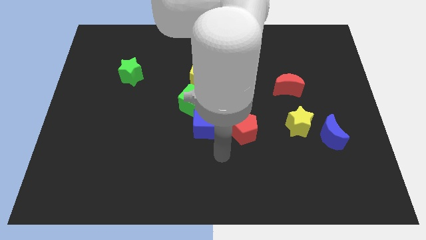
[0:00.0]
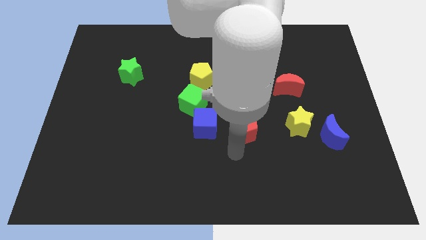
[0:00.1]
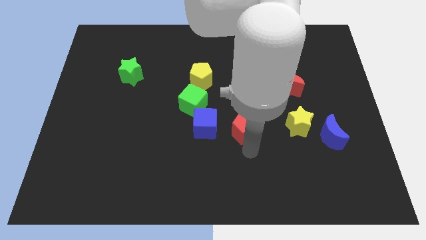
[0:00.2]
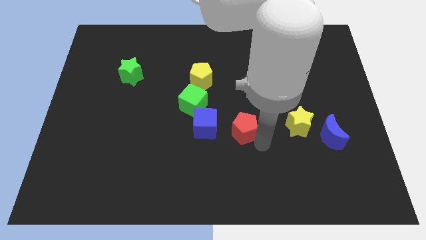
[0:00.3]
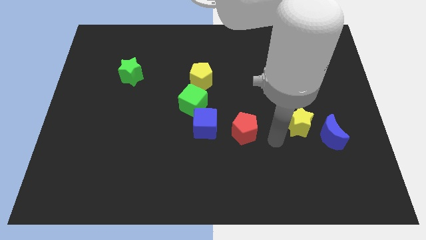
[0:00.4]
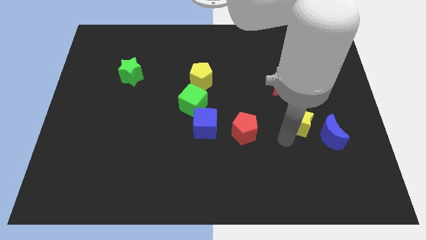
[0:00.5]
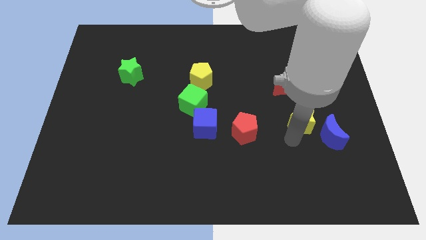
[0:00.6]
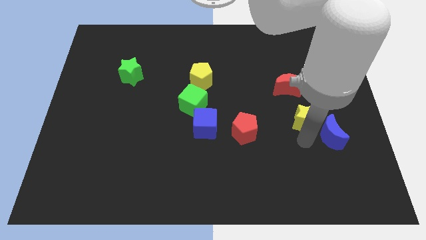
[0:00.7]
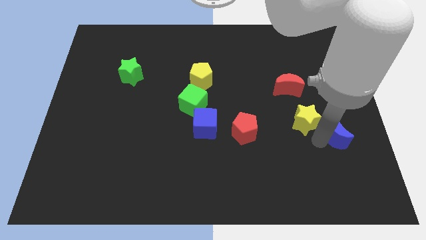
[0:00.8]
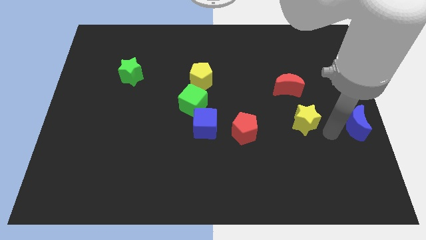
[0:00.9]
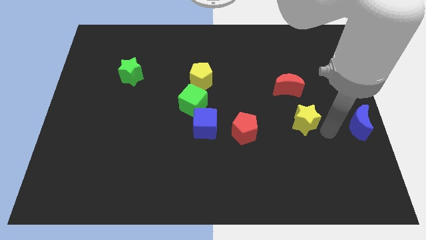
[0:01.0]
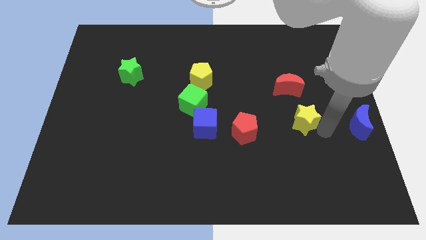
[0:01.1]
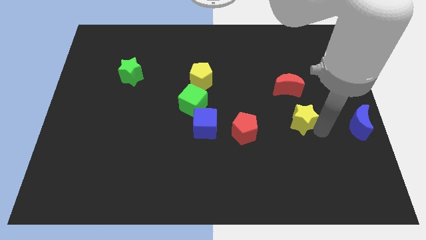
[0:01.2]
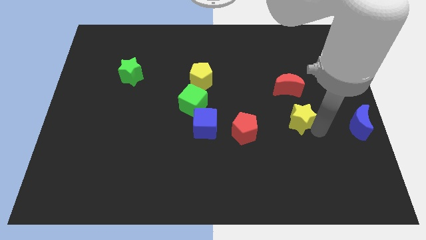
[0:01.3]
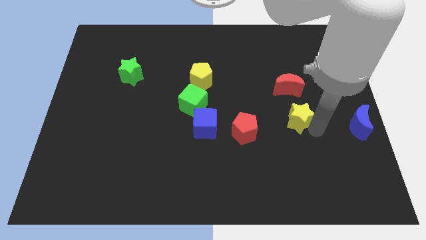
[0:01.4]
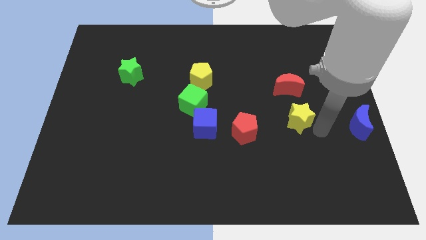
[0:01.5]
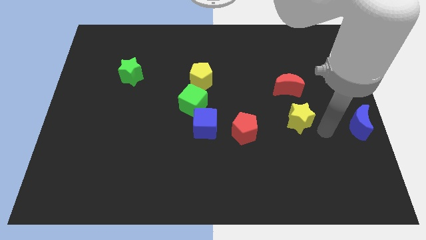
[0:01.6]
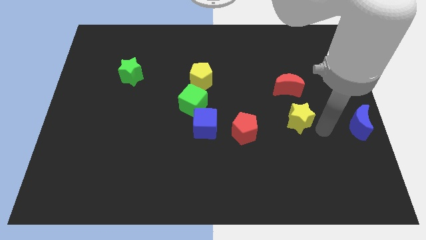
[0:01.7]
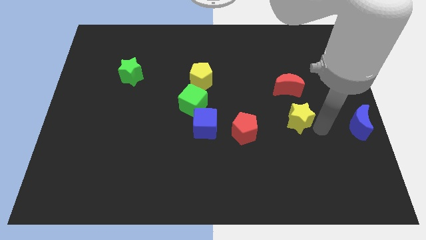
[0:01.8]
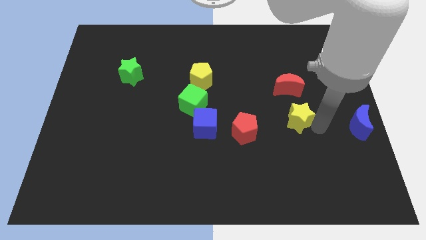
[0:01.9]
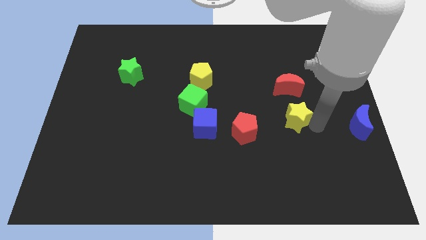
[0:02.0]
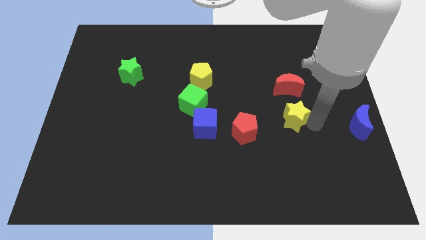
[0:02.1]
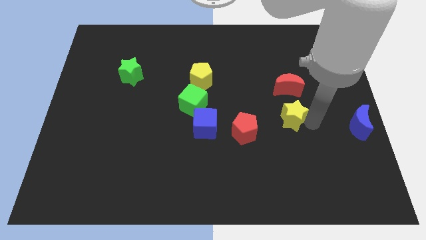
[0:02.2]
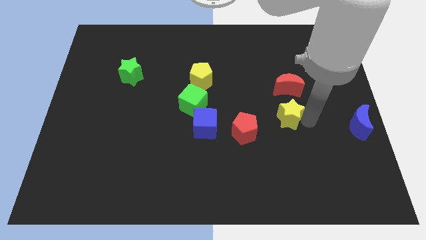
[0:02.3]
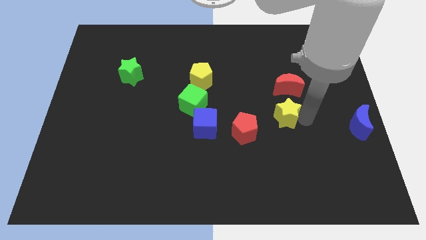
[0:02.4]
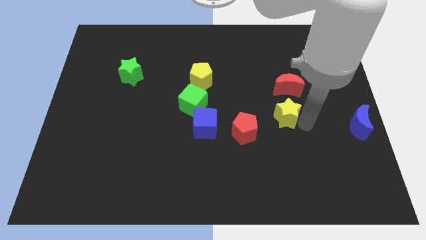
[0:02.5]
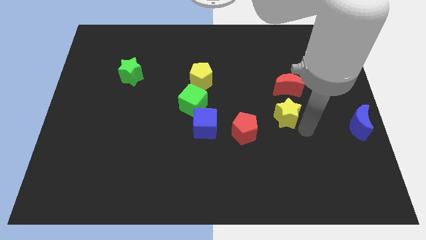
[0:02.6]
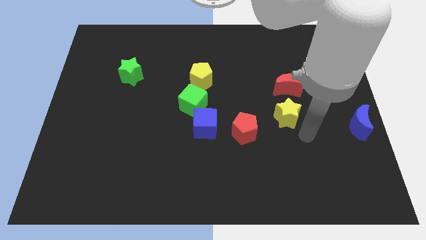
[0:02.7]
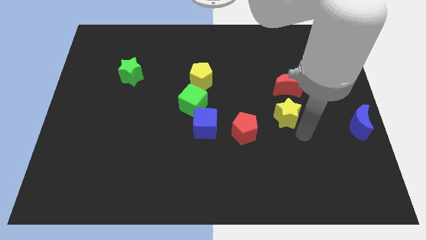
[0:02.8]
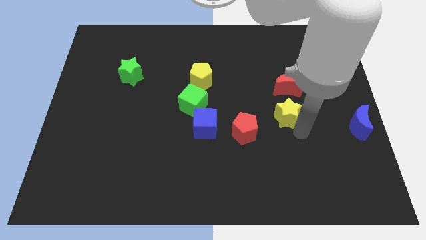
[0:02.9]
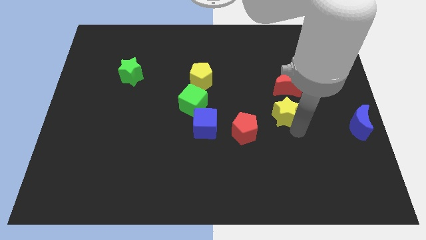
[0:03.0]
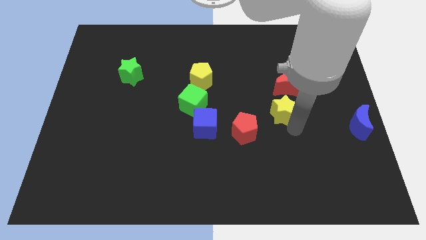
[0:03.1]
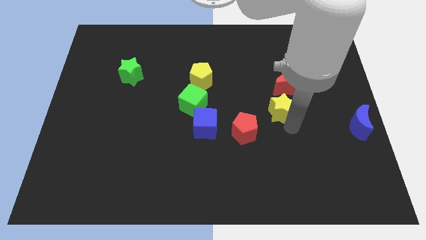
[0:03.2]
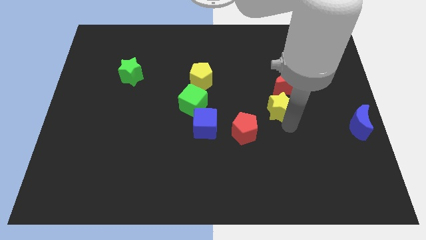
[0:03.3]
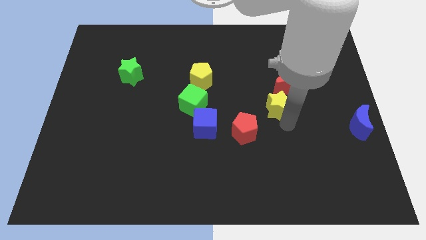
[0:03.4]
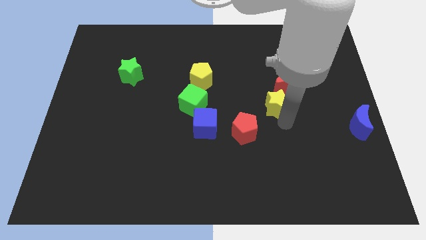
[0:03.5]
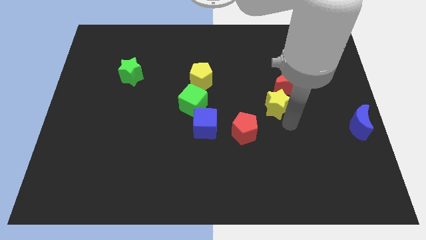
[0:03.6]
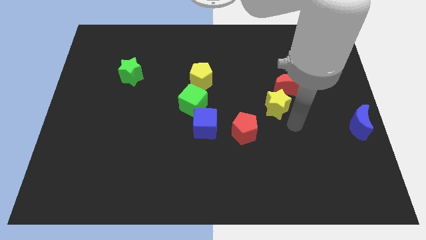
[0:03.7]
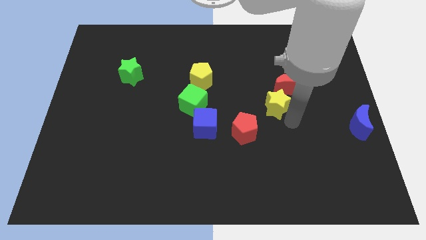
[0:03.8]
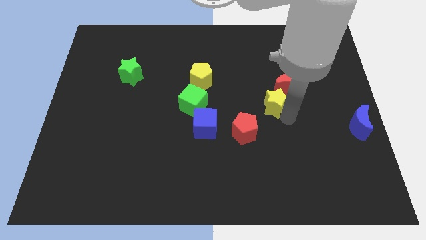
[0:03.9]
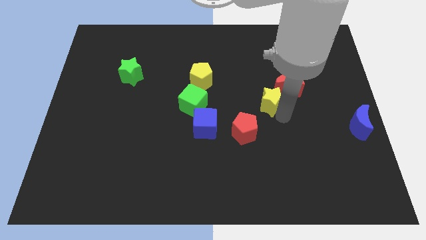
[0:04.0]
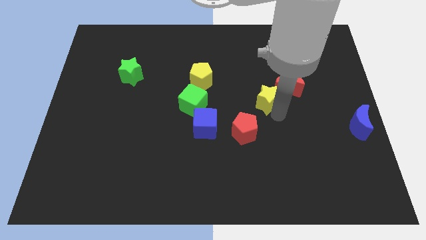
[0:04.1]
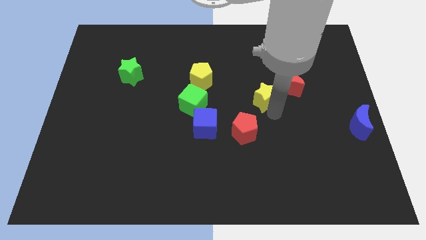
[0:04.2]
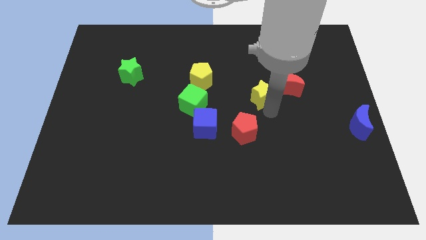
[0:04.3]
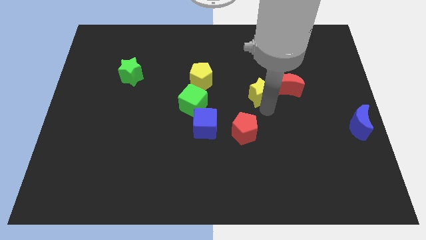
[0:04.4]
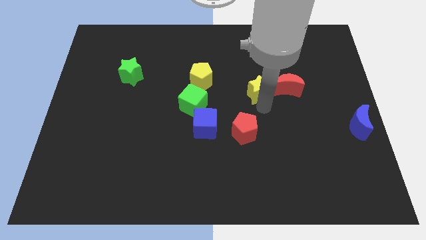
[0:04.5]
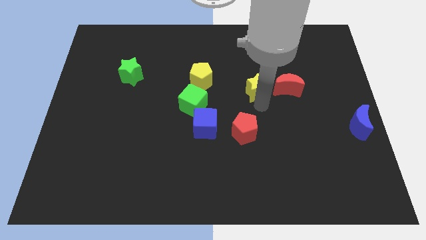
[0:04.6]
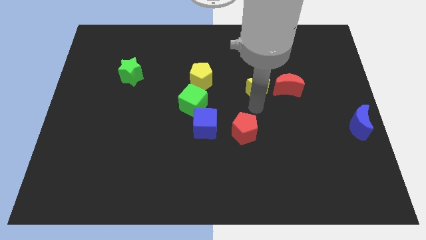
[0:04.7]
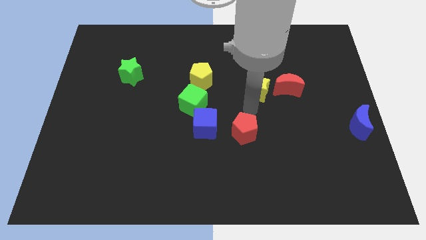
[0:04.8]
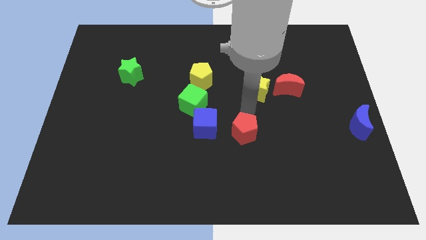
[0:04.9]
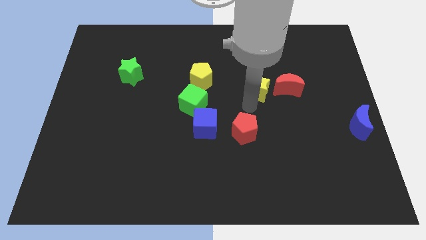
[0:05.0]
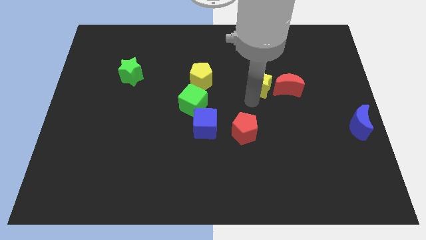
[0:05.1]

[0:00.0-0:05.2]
slide the yellow star diagonally up and to the left of the red moon

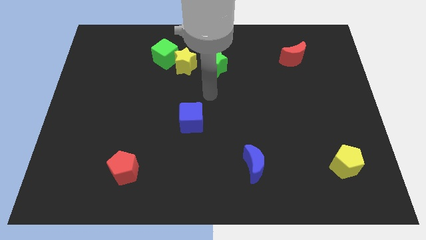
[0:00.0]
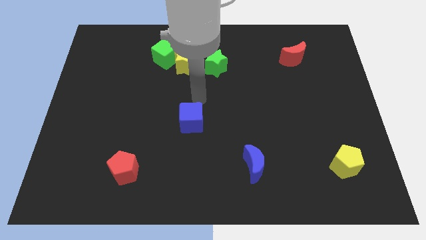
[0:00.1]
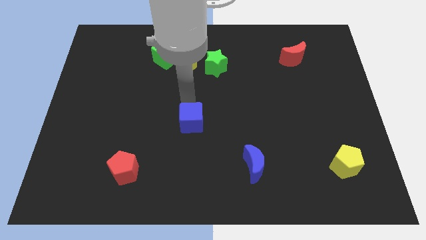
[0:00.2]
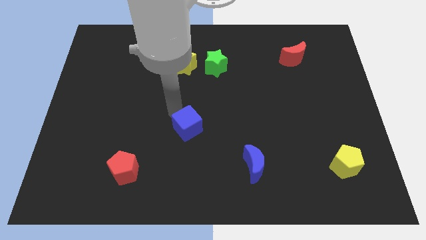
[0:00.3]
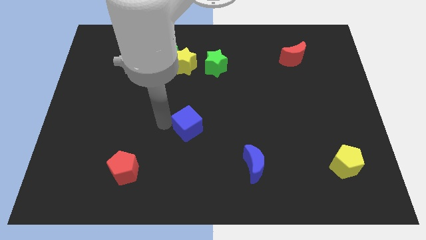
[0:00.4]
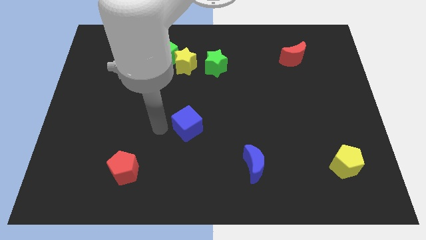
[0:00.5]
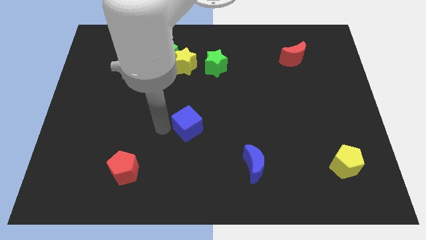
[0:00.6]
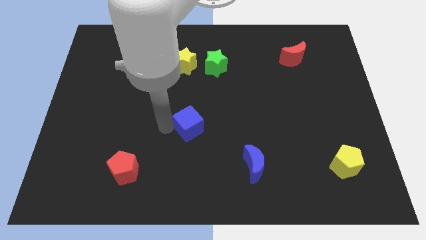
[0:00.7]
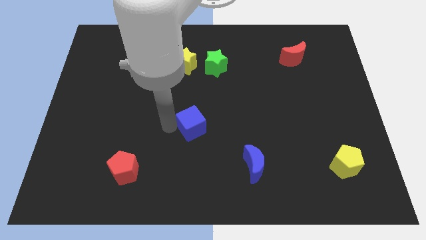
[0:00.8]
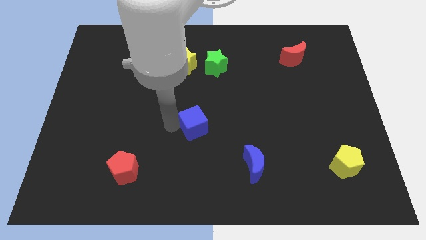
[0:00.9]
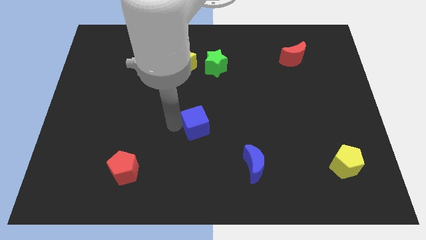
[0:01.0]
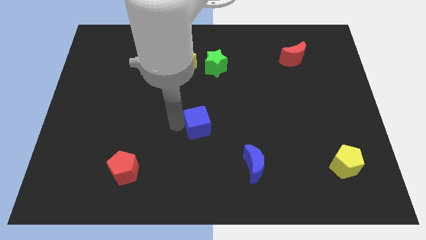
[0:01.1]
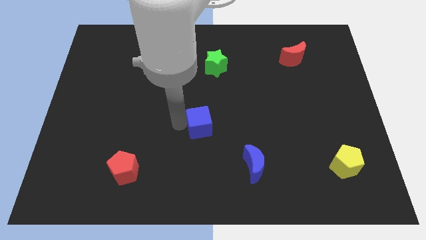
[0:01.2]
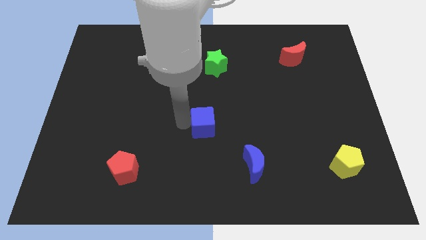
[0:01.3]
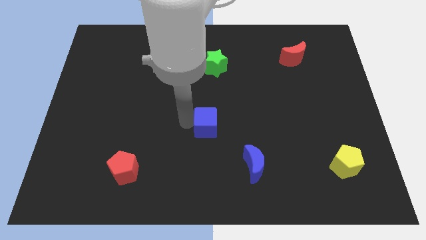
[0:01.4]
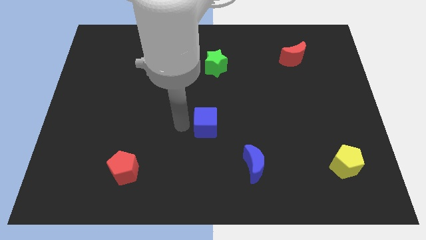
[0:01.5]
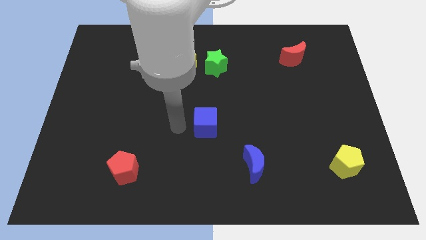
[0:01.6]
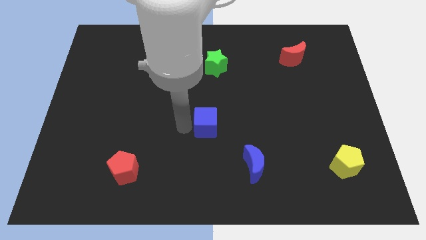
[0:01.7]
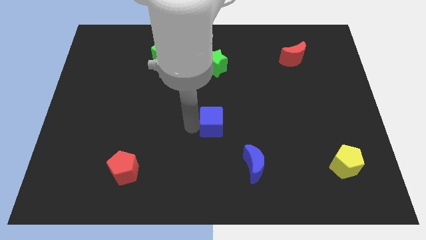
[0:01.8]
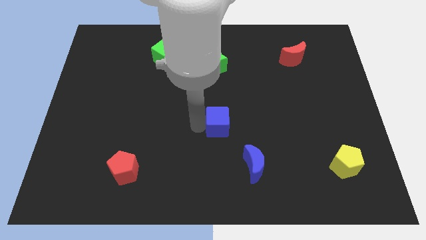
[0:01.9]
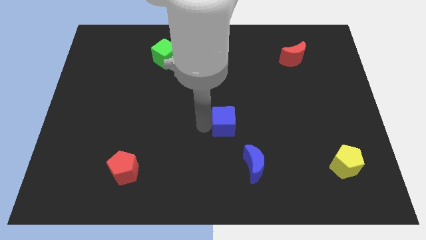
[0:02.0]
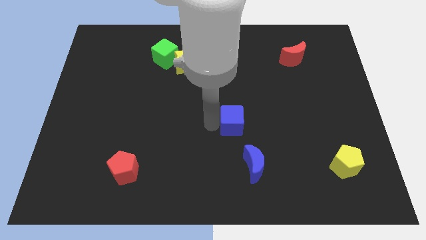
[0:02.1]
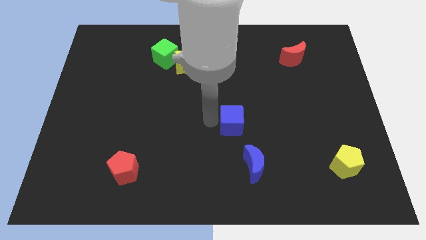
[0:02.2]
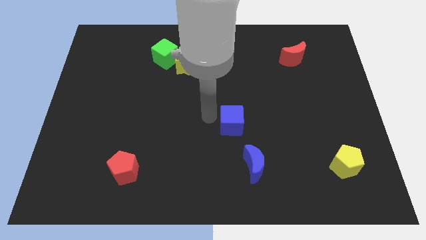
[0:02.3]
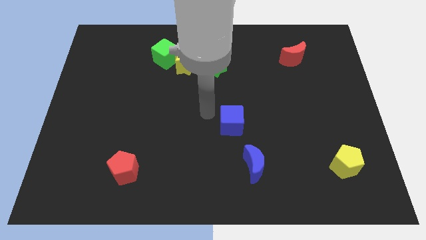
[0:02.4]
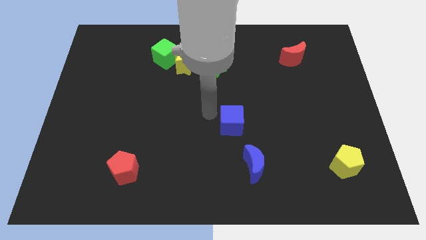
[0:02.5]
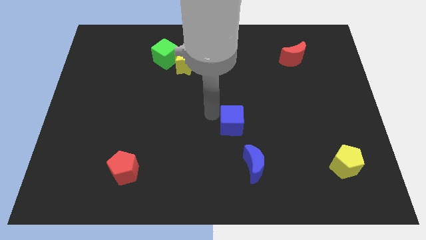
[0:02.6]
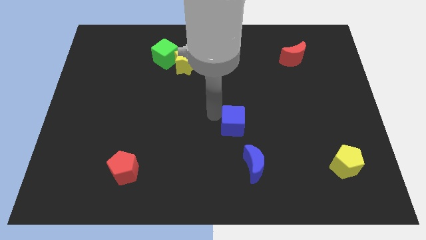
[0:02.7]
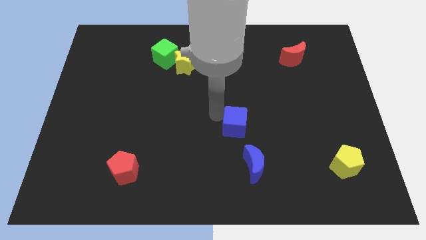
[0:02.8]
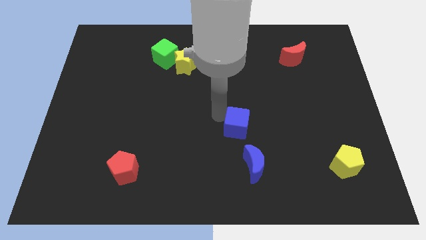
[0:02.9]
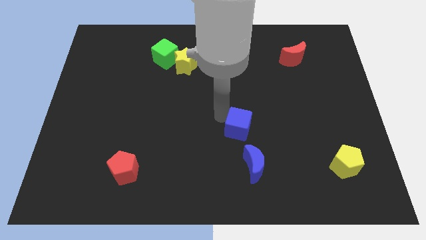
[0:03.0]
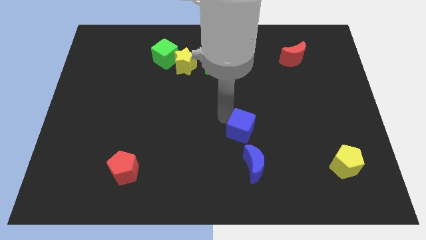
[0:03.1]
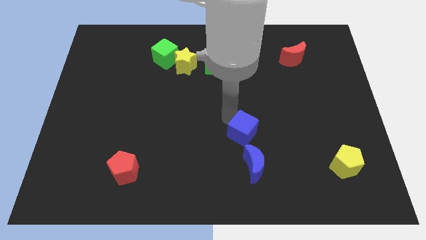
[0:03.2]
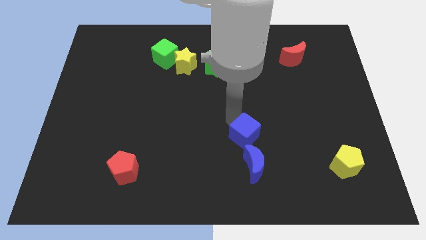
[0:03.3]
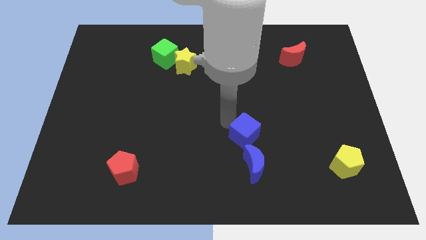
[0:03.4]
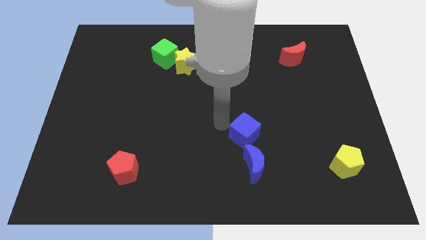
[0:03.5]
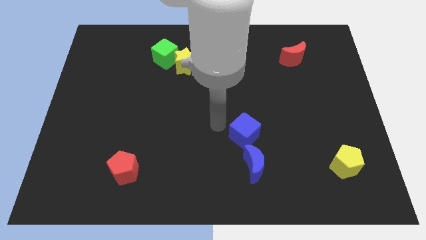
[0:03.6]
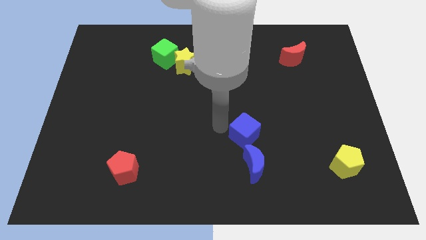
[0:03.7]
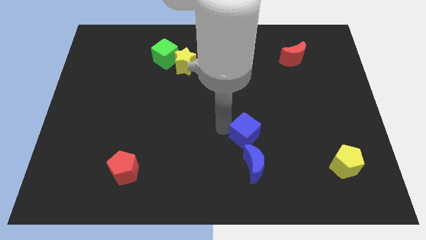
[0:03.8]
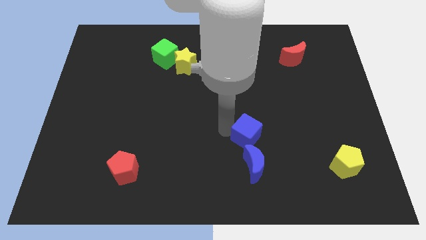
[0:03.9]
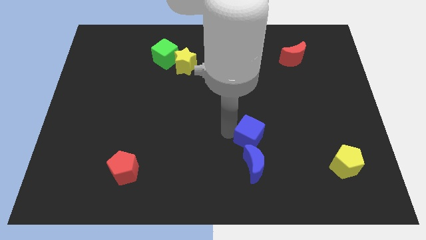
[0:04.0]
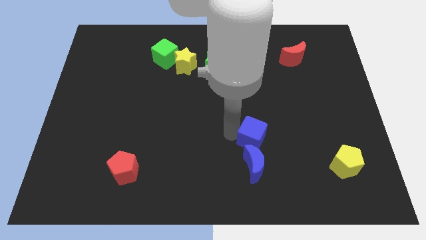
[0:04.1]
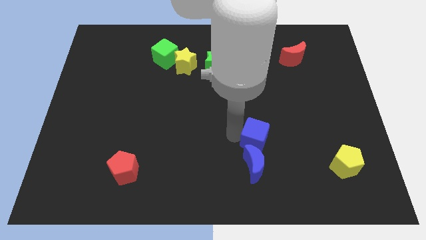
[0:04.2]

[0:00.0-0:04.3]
put the blue cube to the top right side of the blue moon
